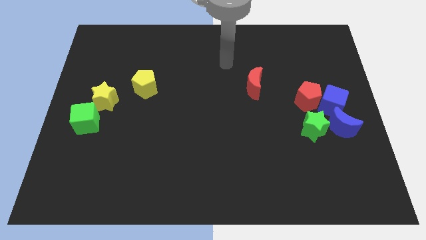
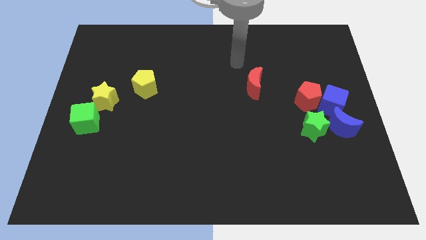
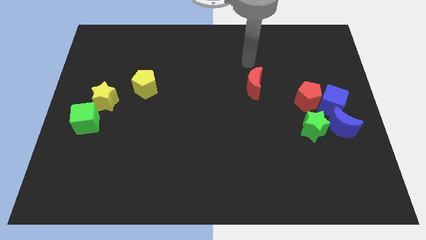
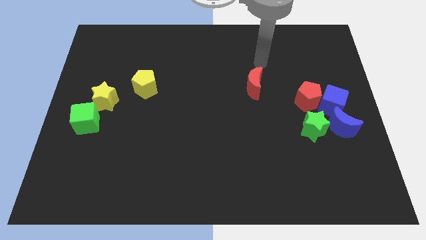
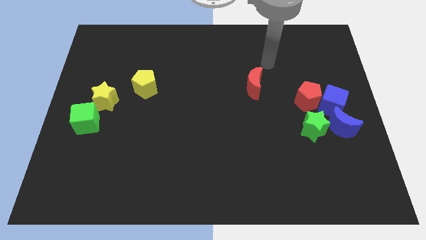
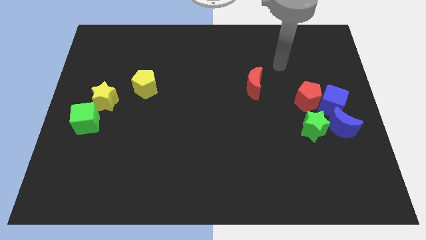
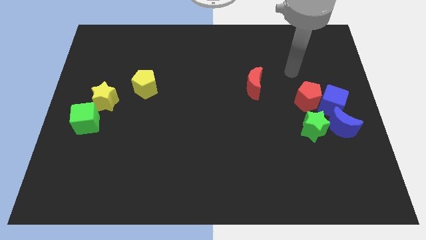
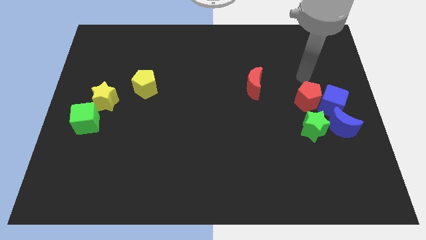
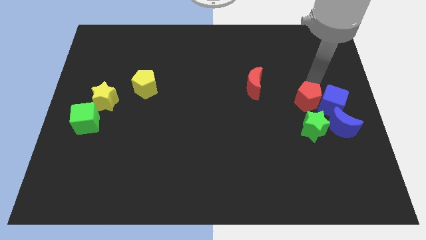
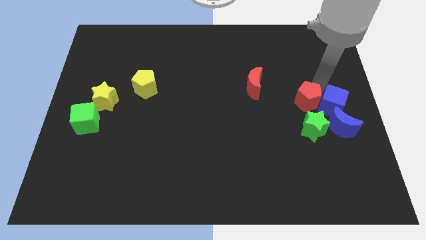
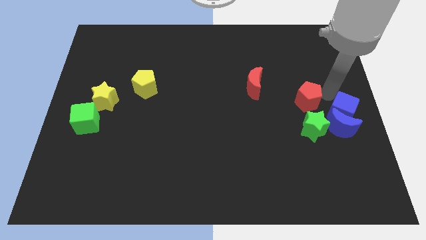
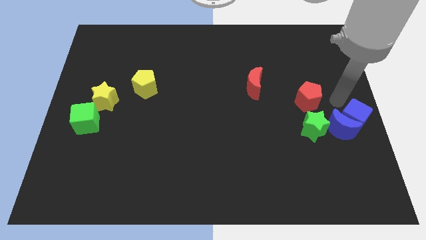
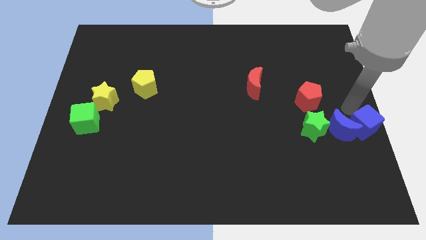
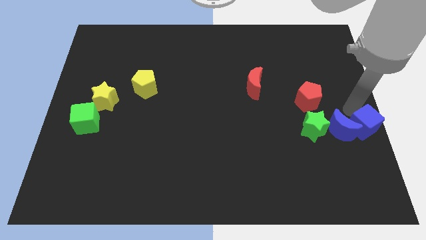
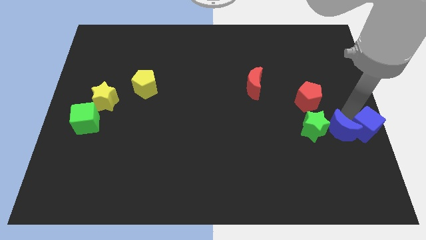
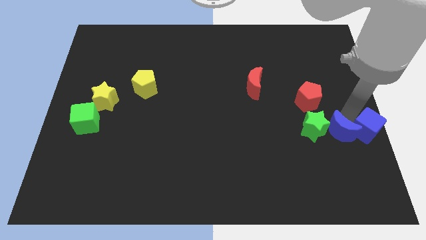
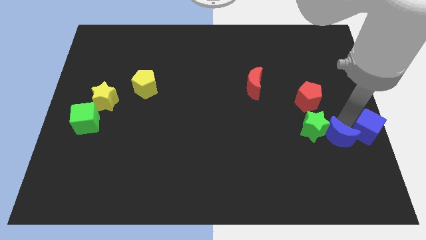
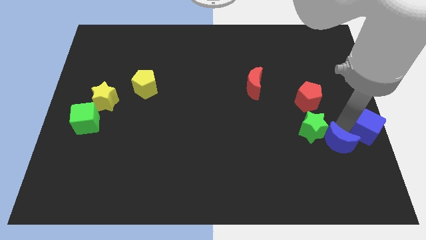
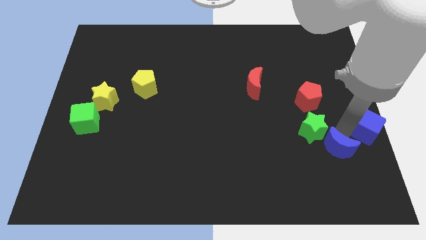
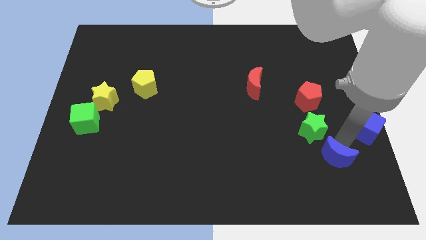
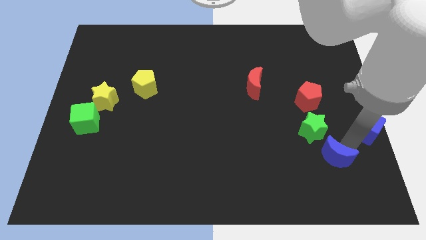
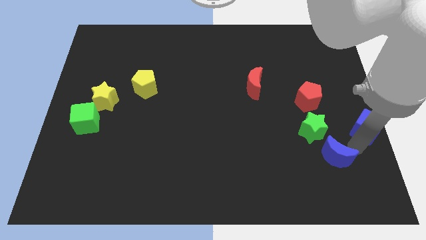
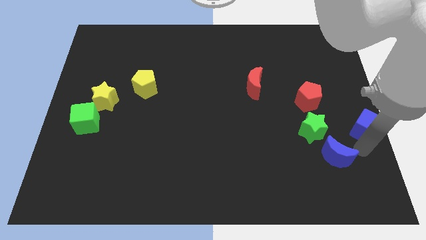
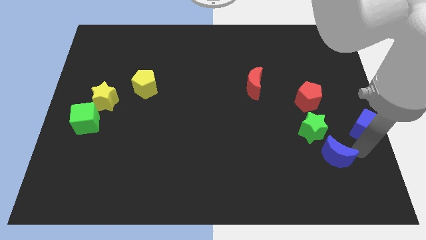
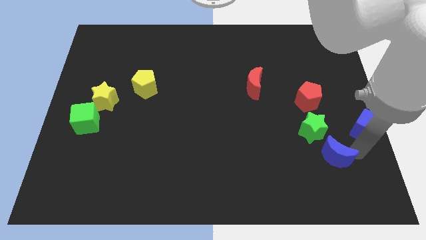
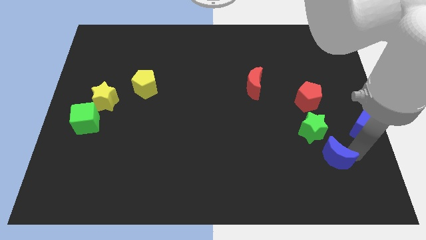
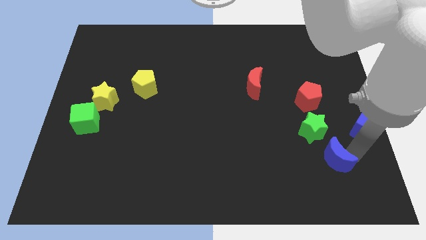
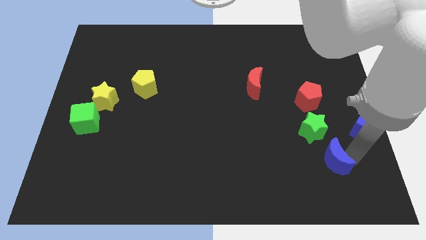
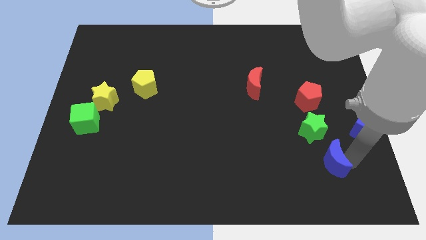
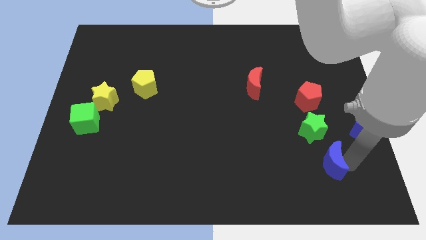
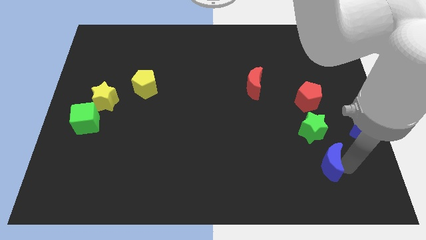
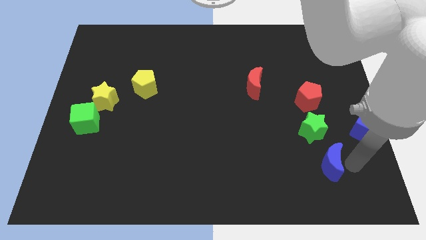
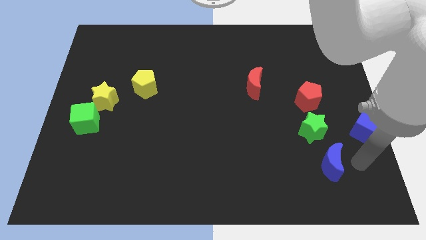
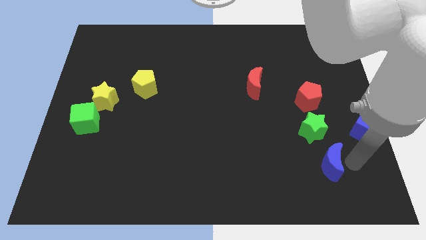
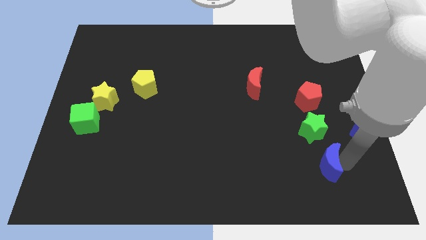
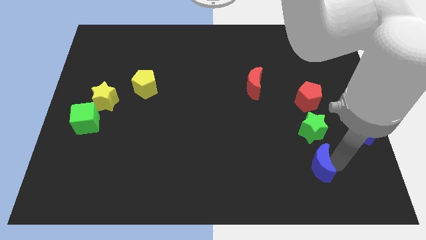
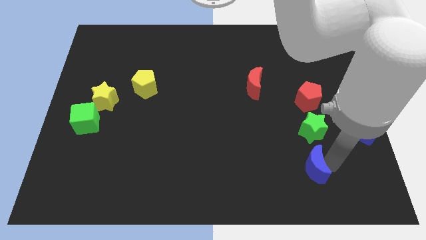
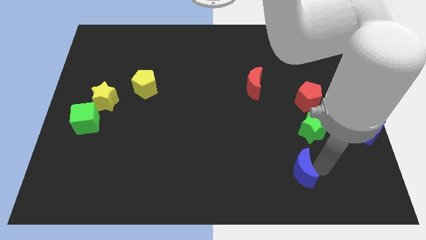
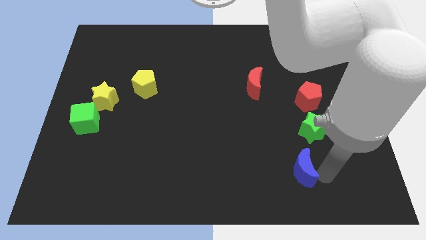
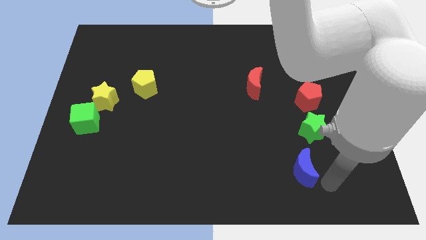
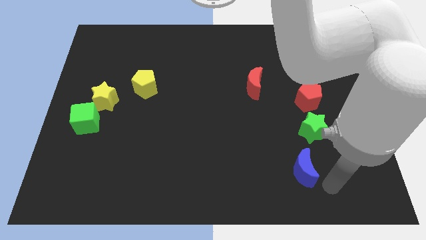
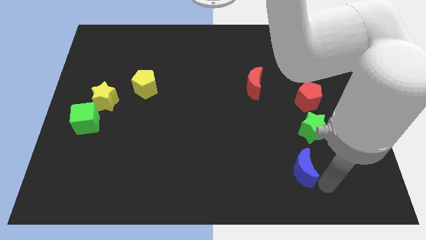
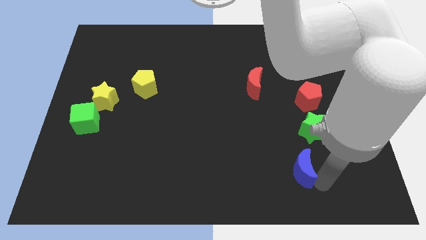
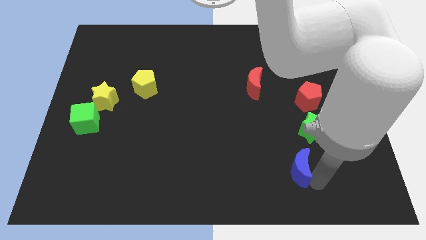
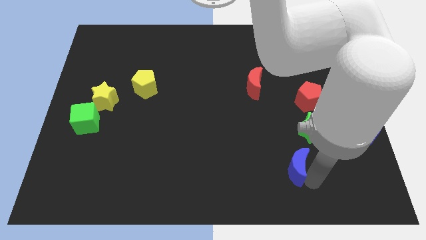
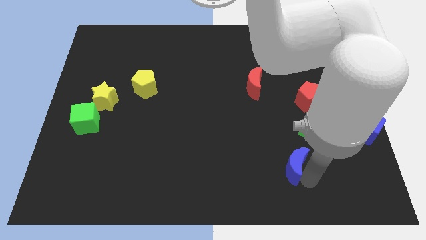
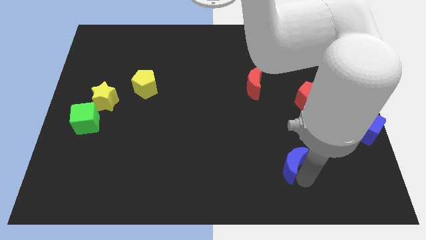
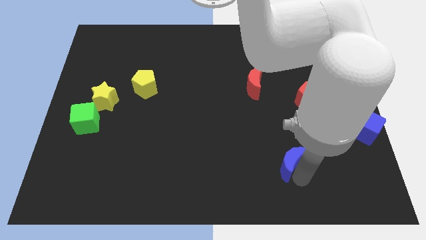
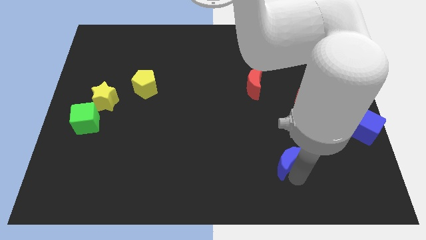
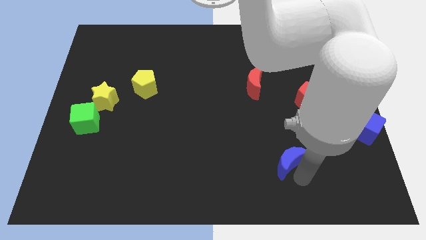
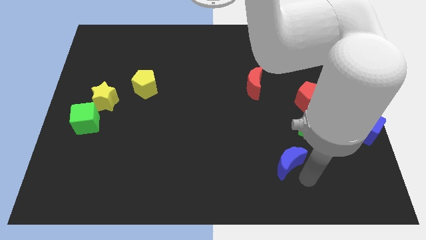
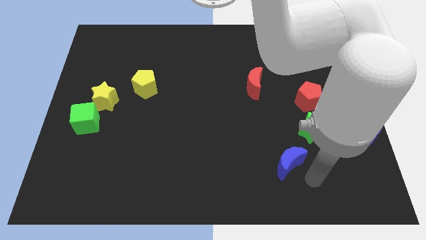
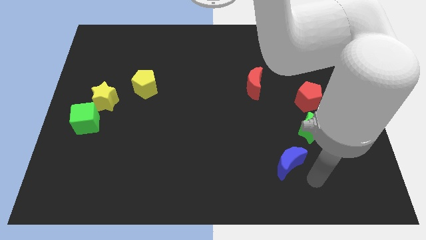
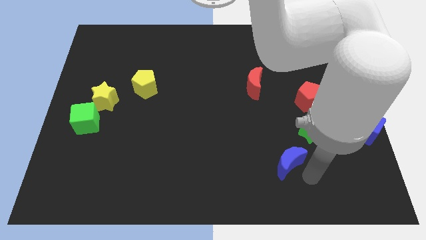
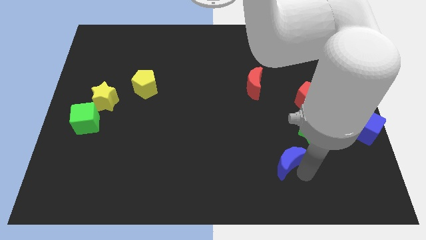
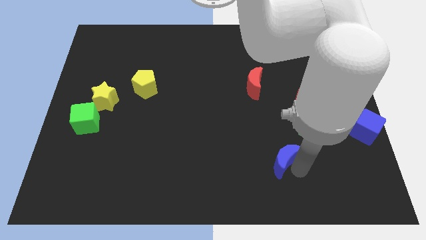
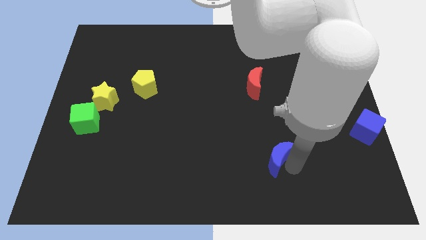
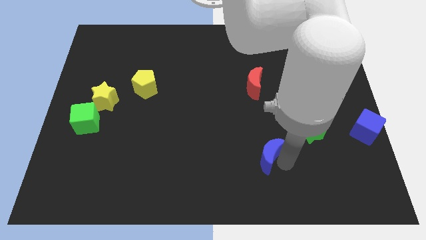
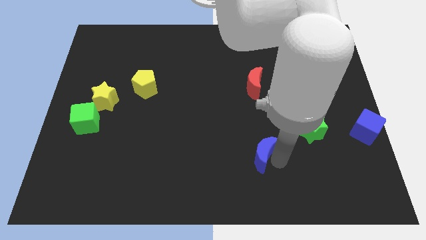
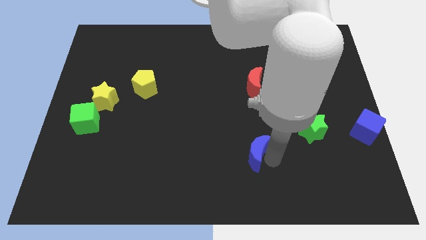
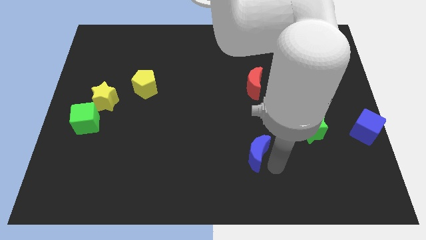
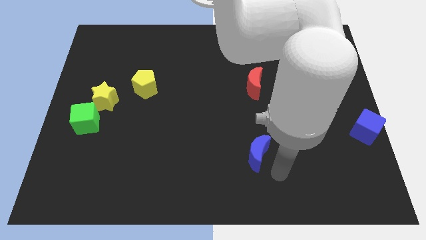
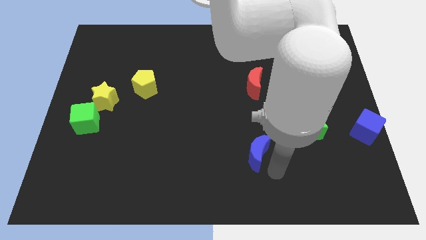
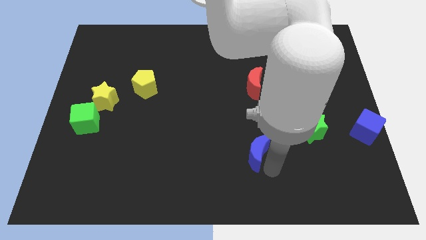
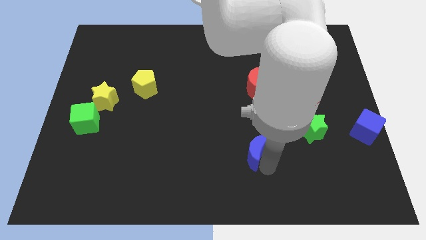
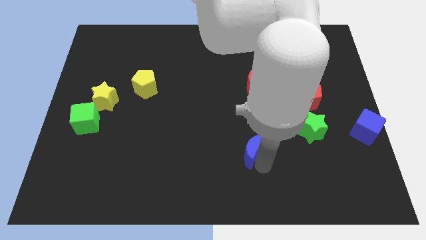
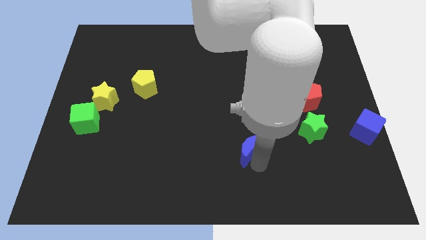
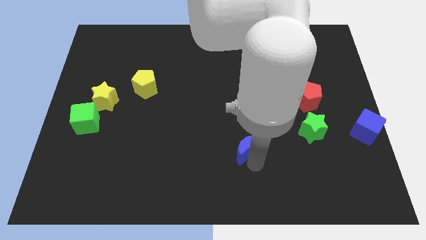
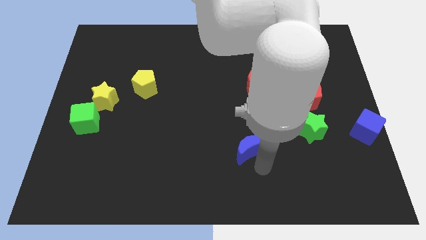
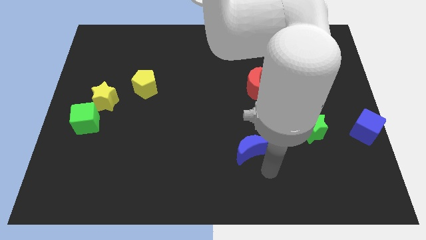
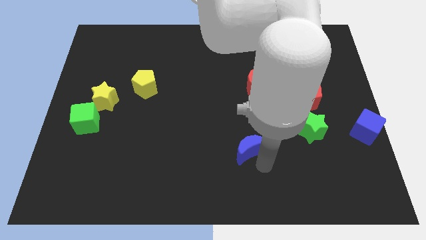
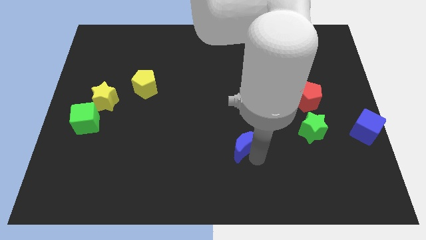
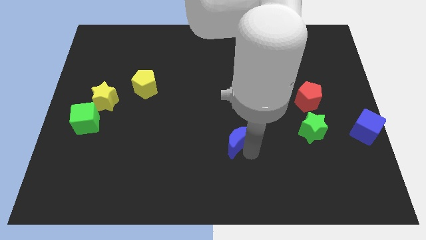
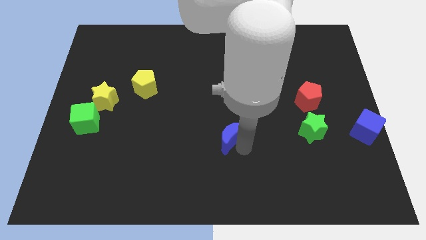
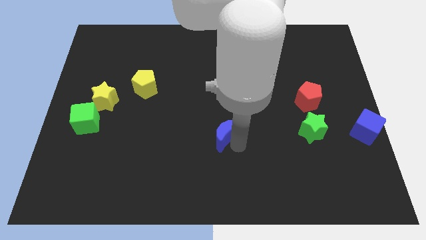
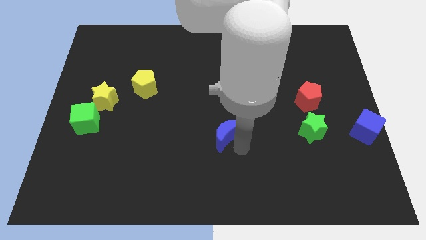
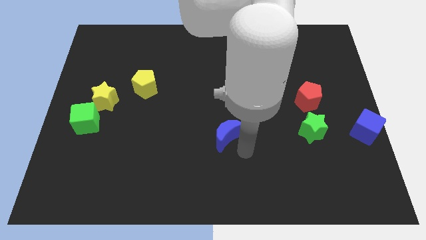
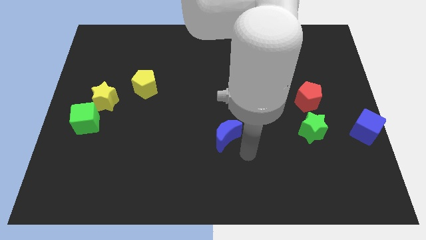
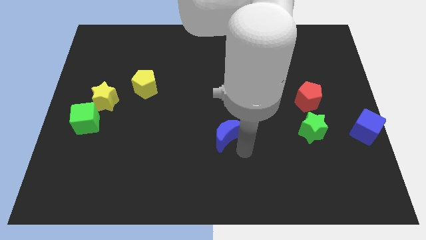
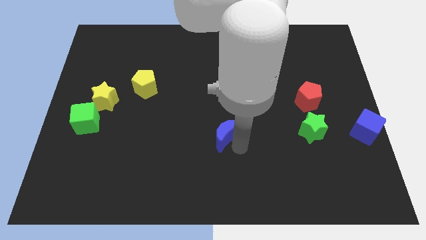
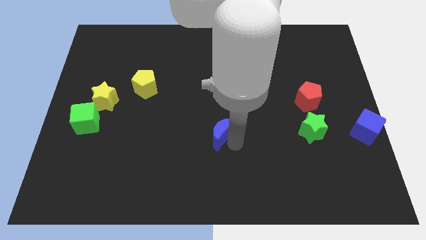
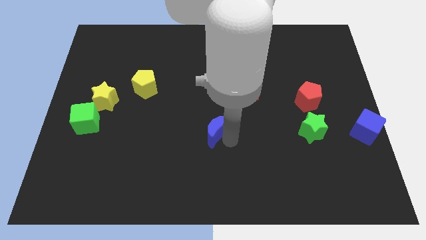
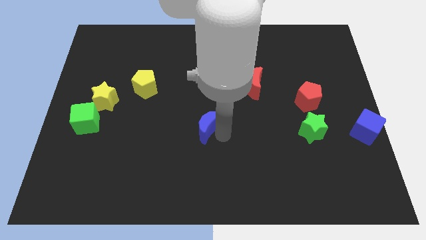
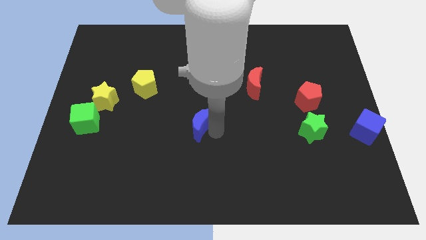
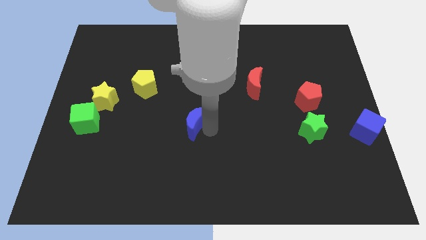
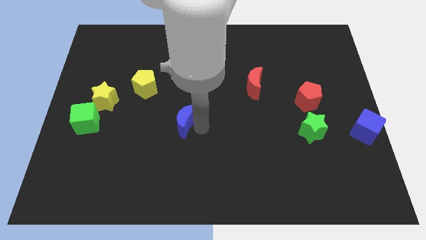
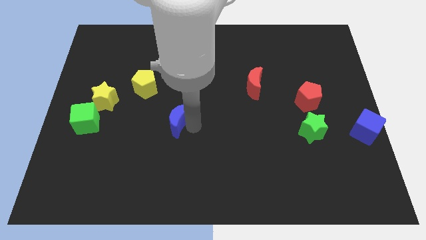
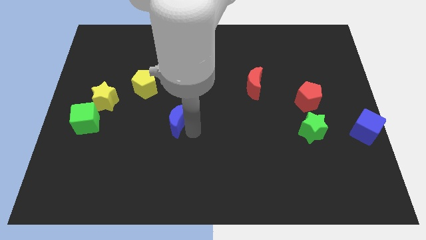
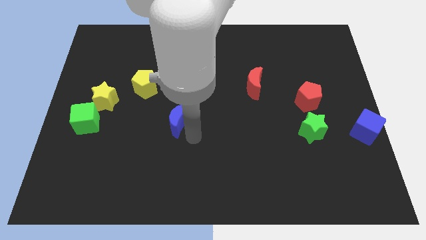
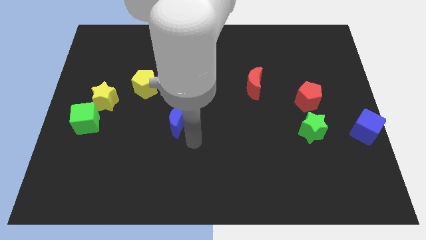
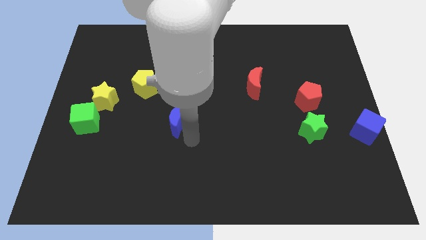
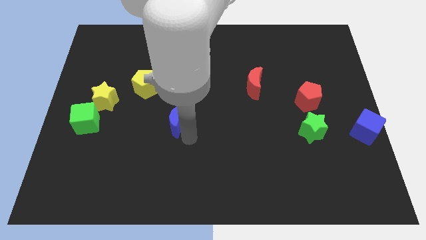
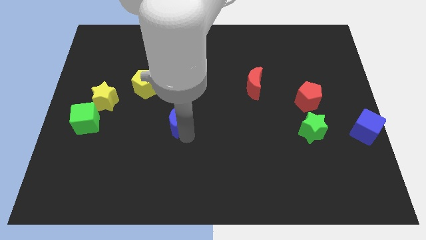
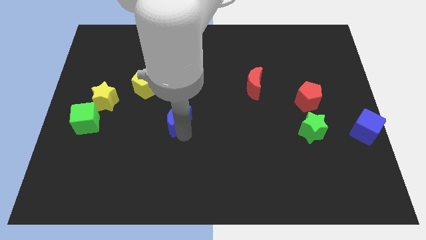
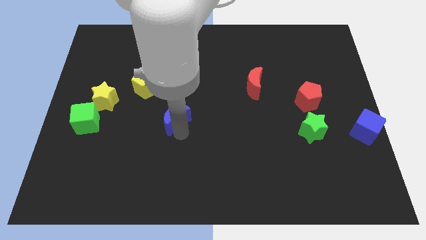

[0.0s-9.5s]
move the blue moon diagonally down and to the right of the yellow pentagon
